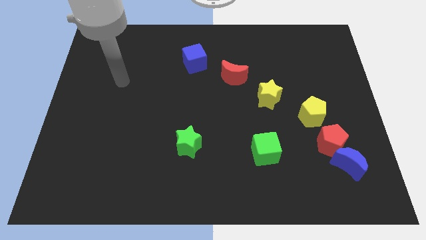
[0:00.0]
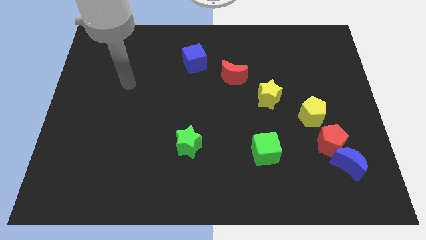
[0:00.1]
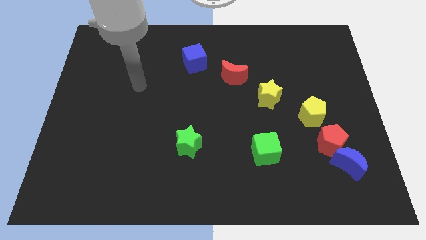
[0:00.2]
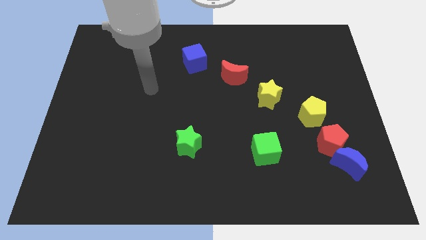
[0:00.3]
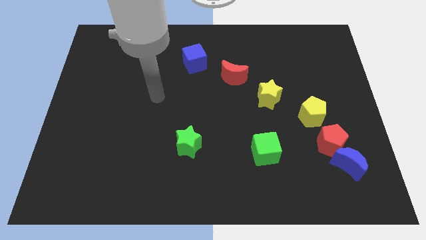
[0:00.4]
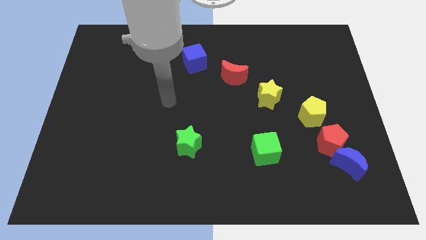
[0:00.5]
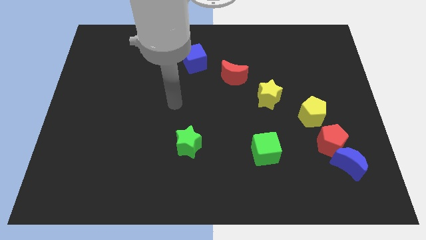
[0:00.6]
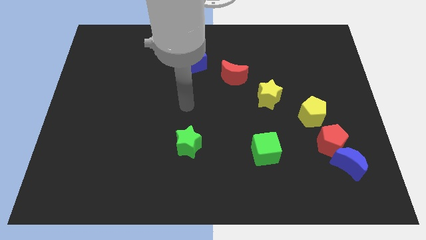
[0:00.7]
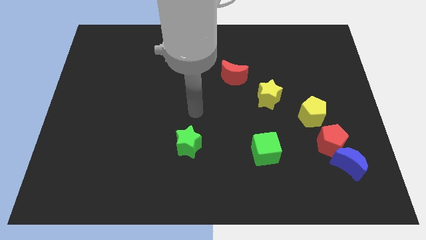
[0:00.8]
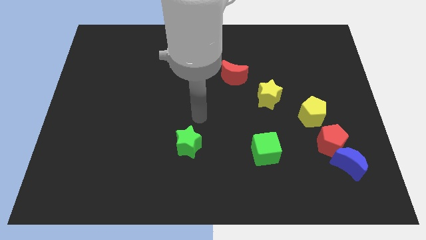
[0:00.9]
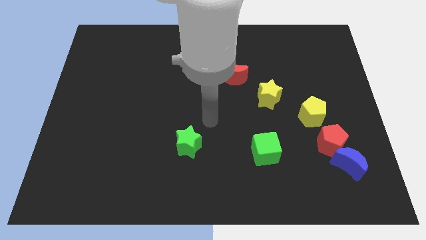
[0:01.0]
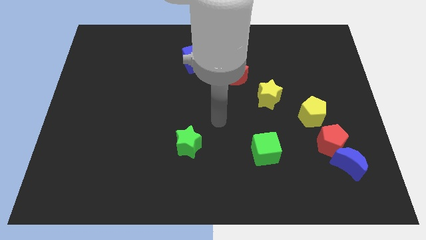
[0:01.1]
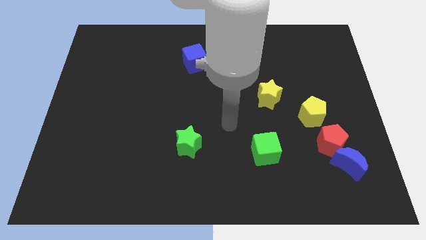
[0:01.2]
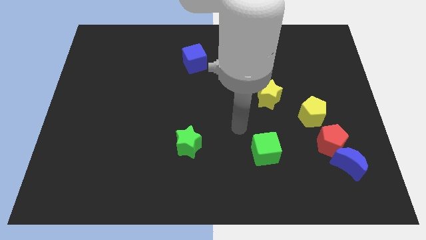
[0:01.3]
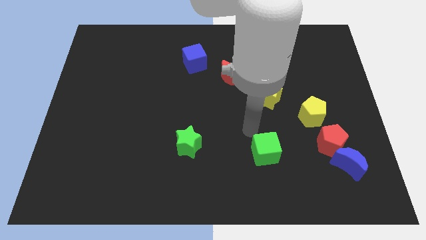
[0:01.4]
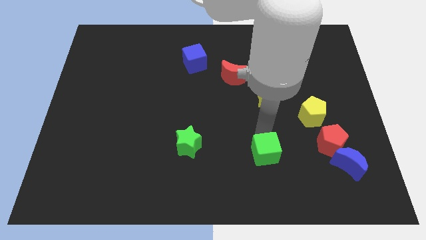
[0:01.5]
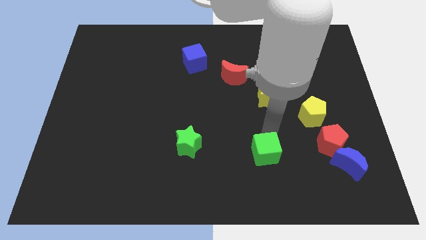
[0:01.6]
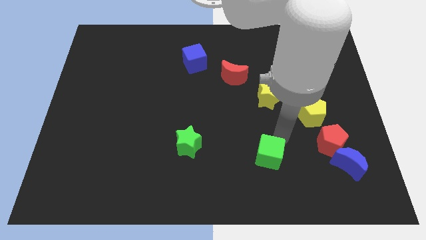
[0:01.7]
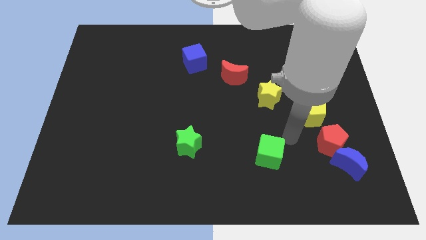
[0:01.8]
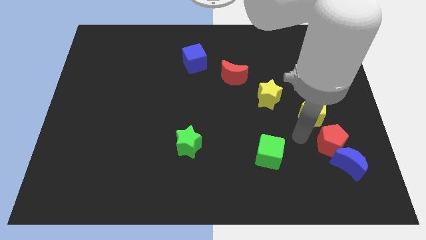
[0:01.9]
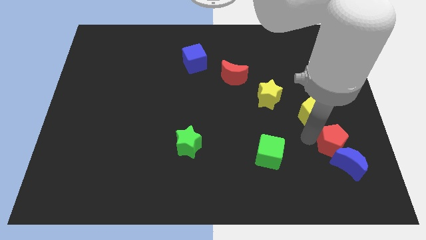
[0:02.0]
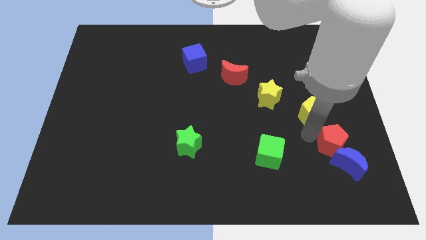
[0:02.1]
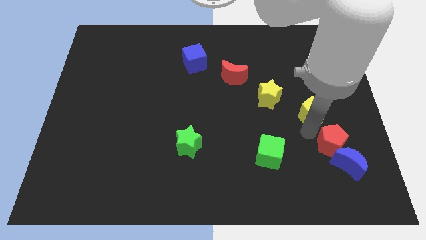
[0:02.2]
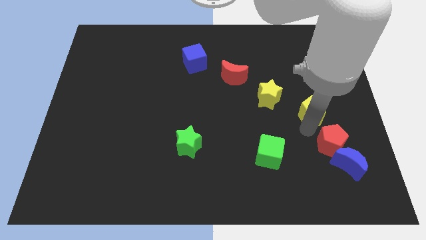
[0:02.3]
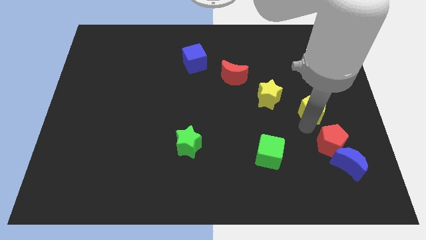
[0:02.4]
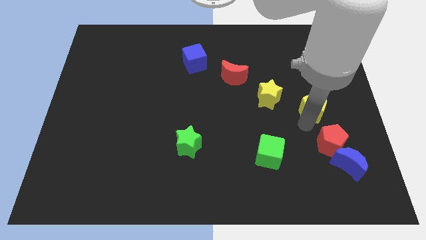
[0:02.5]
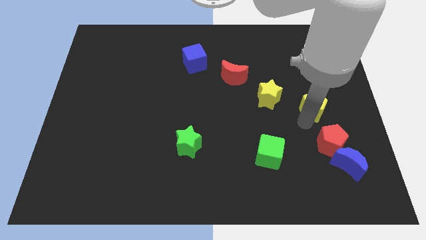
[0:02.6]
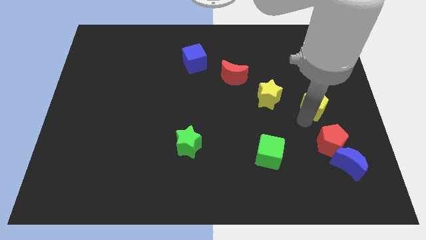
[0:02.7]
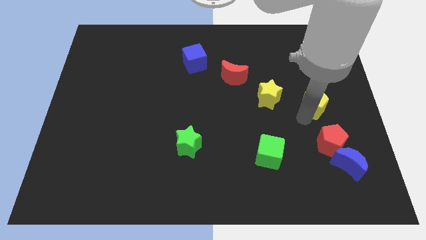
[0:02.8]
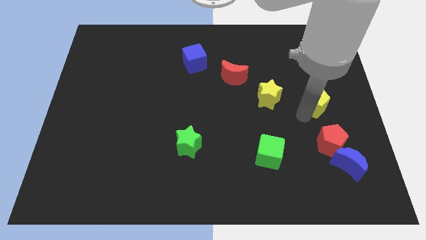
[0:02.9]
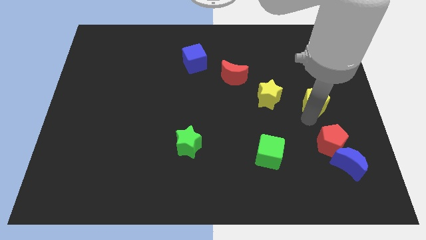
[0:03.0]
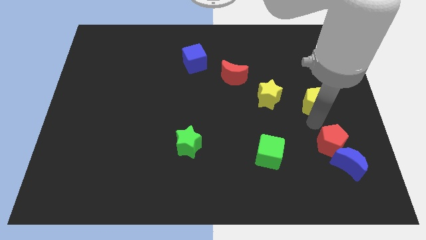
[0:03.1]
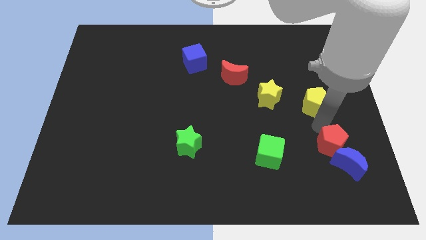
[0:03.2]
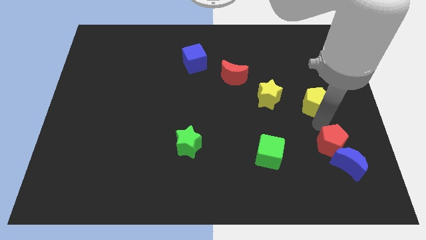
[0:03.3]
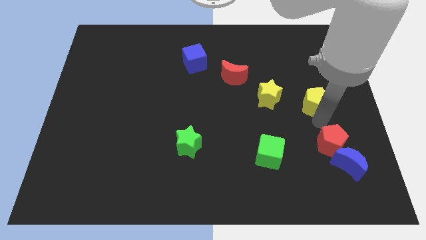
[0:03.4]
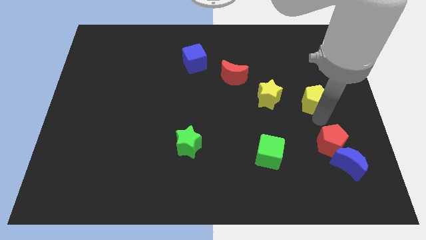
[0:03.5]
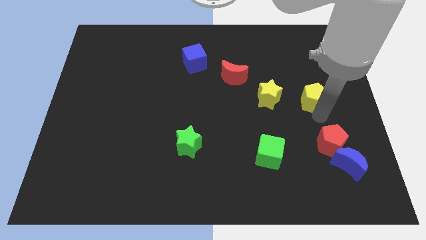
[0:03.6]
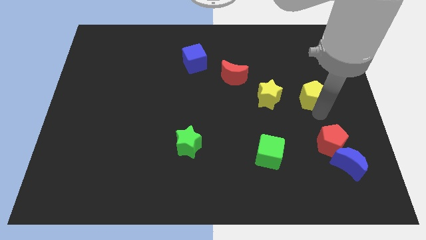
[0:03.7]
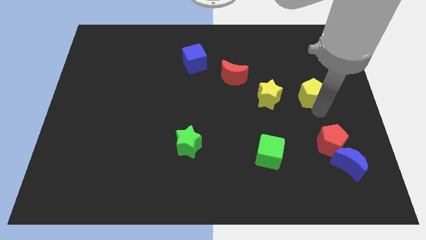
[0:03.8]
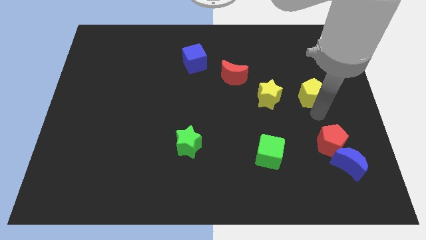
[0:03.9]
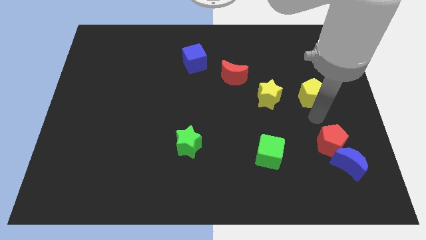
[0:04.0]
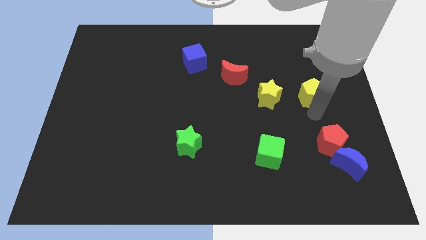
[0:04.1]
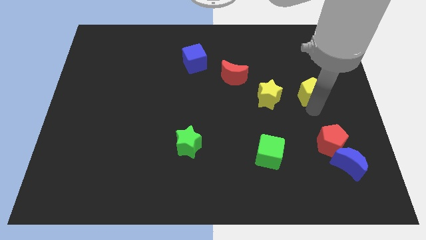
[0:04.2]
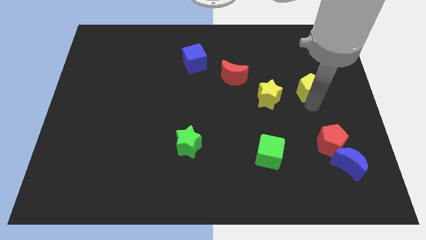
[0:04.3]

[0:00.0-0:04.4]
slide the yellow pentagon upwards slightly

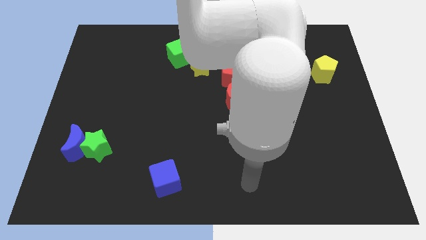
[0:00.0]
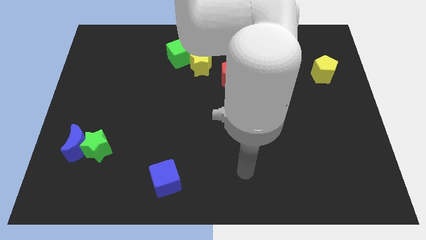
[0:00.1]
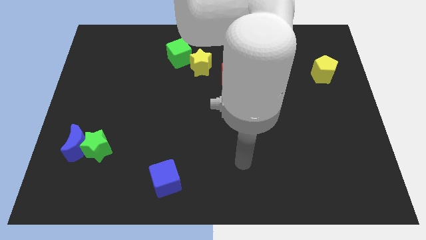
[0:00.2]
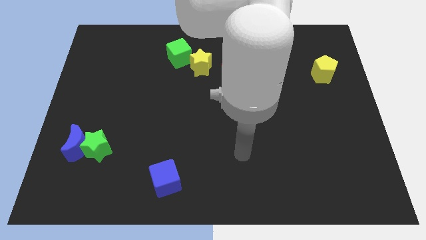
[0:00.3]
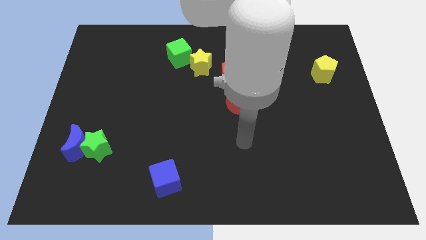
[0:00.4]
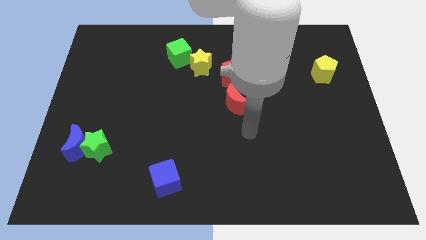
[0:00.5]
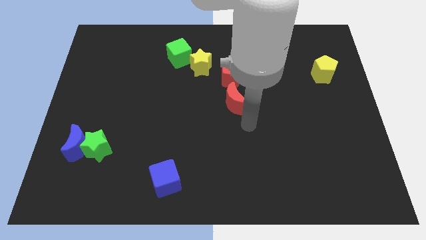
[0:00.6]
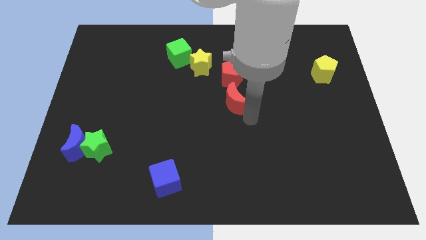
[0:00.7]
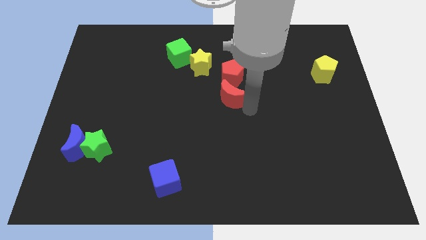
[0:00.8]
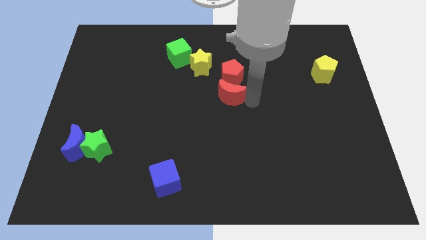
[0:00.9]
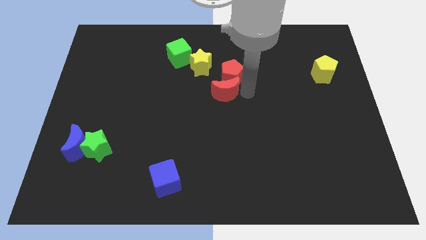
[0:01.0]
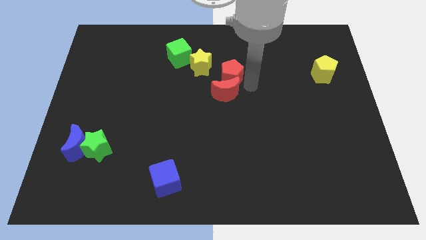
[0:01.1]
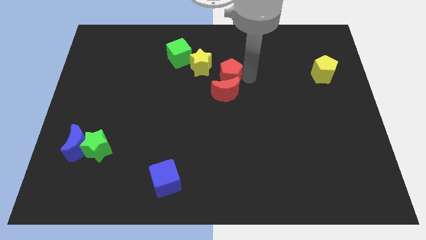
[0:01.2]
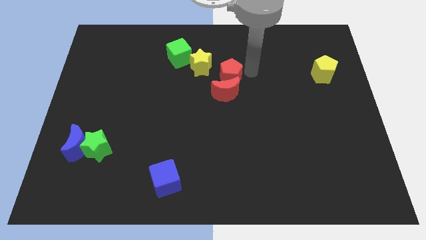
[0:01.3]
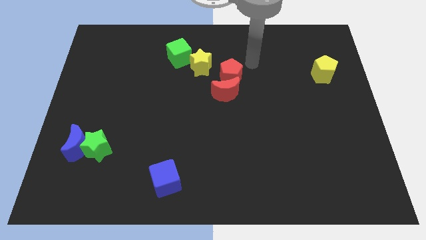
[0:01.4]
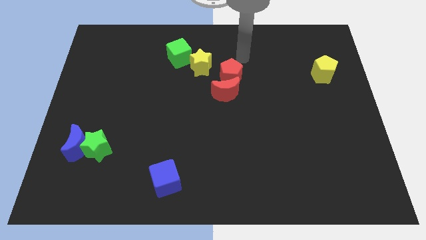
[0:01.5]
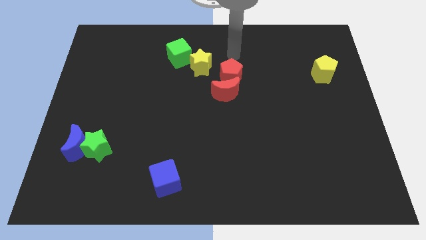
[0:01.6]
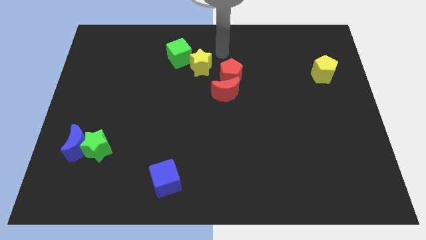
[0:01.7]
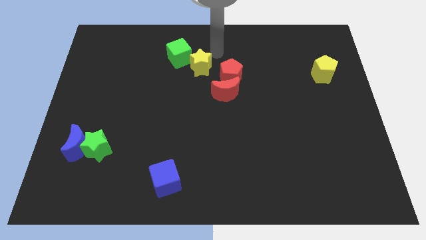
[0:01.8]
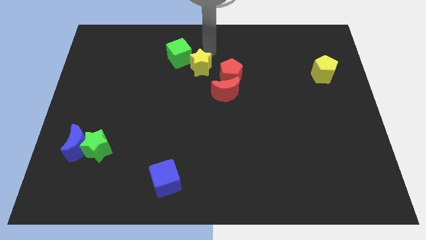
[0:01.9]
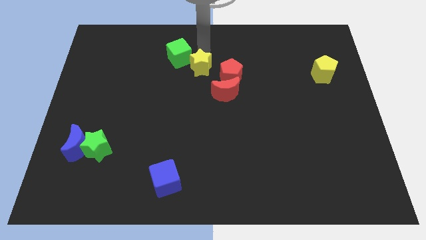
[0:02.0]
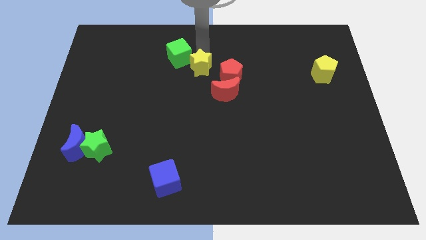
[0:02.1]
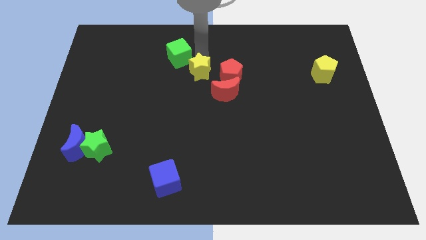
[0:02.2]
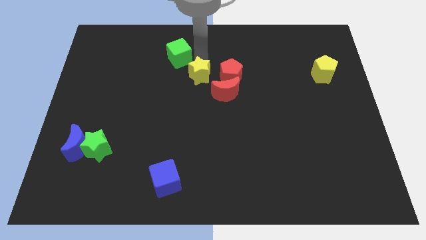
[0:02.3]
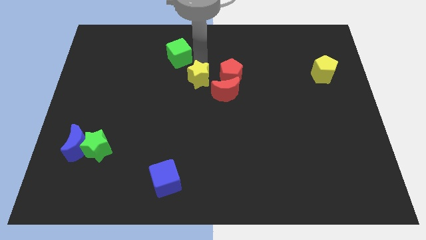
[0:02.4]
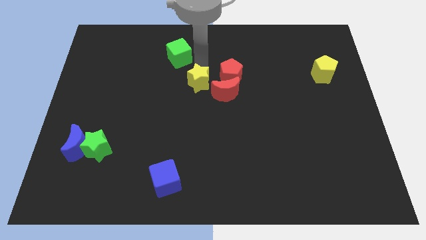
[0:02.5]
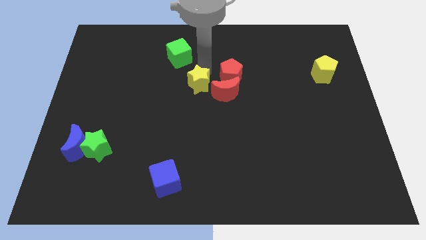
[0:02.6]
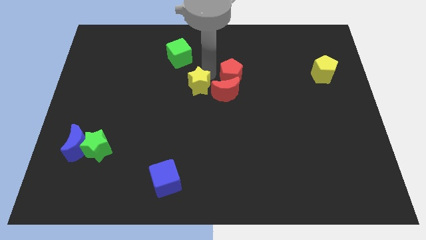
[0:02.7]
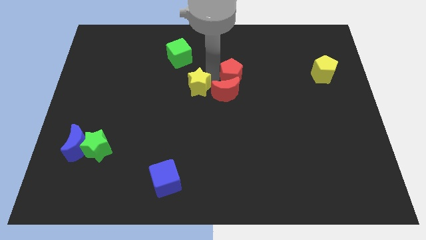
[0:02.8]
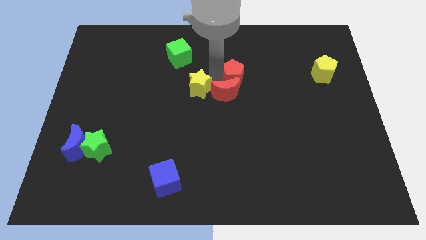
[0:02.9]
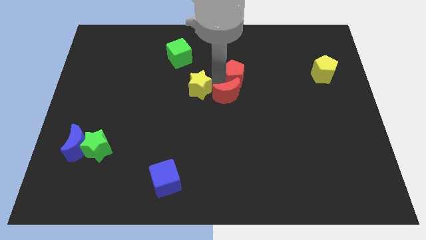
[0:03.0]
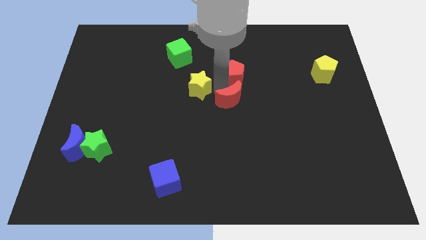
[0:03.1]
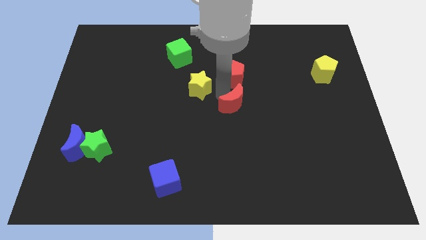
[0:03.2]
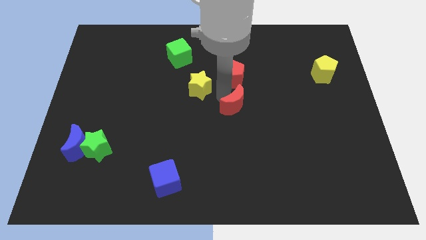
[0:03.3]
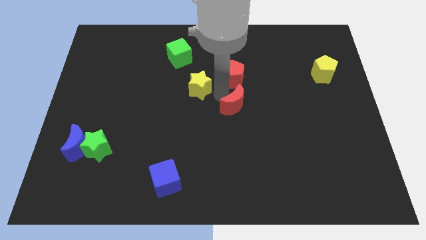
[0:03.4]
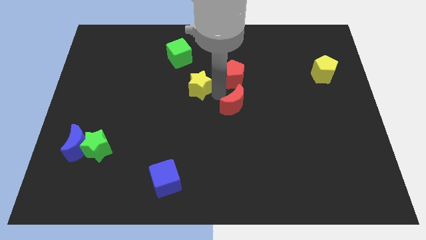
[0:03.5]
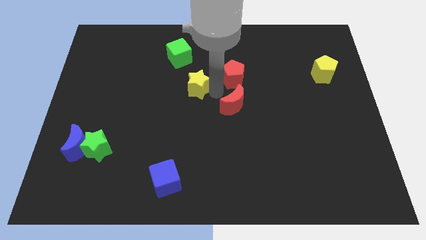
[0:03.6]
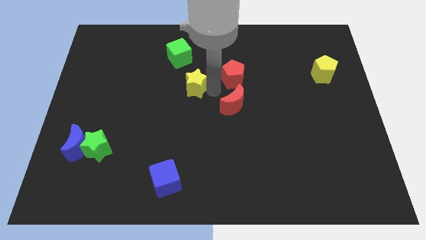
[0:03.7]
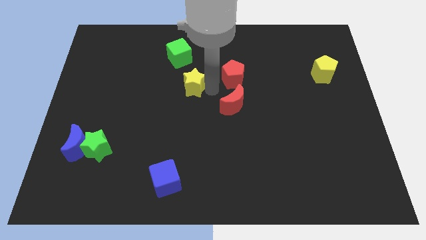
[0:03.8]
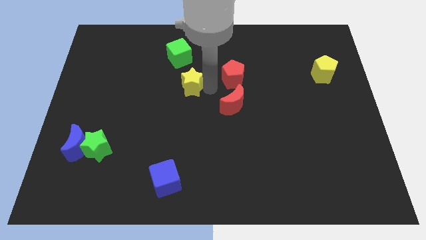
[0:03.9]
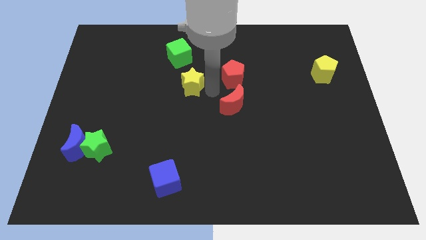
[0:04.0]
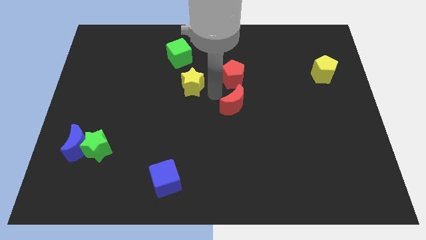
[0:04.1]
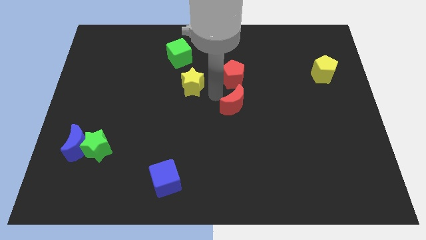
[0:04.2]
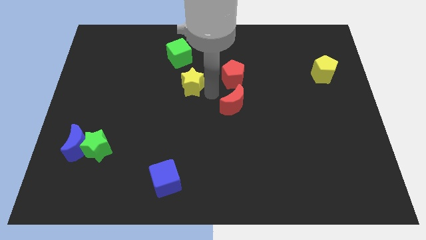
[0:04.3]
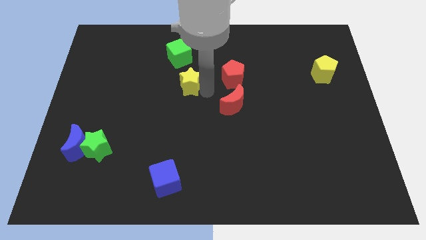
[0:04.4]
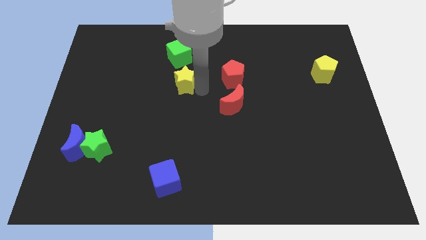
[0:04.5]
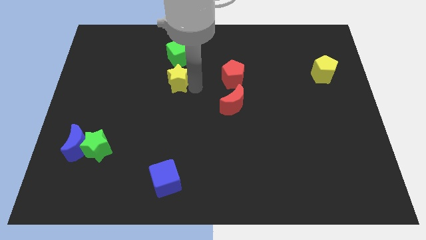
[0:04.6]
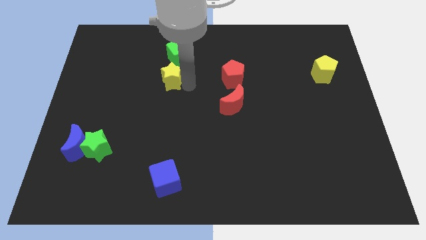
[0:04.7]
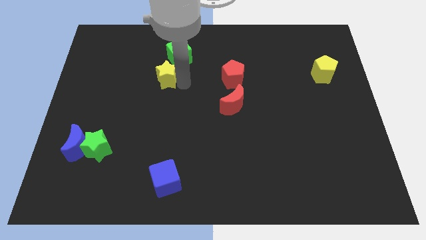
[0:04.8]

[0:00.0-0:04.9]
slide the yellow star a little bit to the left
